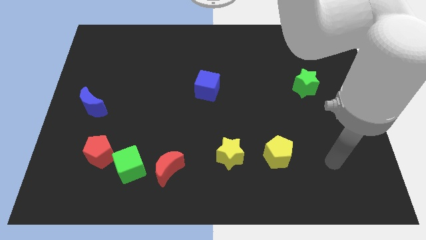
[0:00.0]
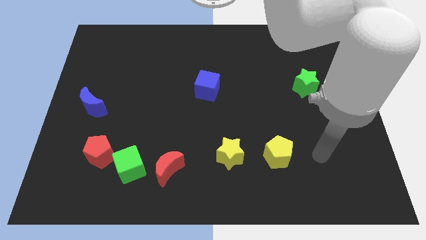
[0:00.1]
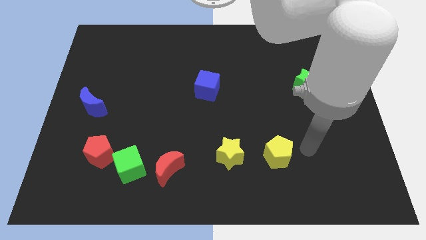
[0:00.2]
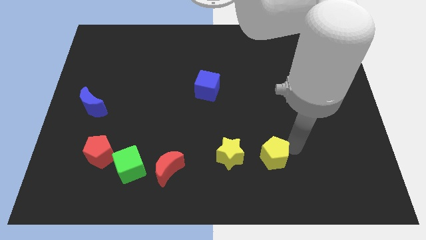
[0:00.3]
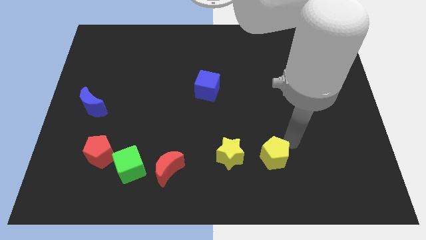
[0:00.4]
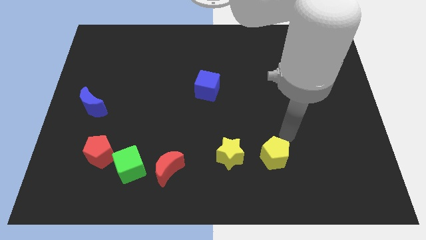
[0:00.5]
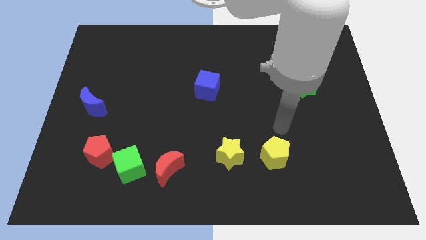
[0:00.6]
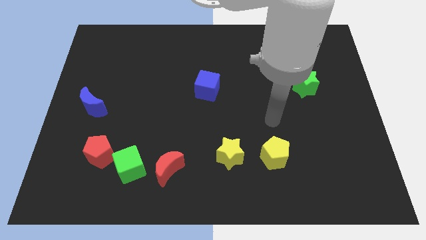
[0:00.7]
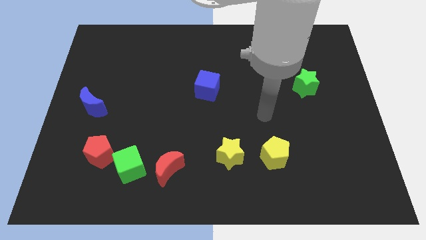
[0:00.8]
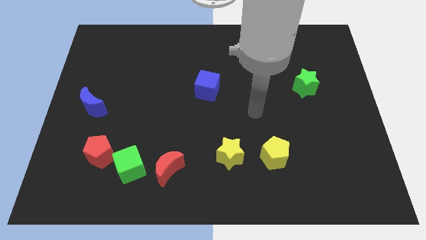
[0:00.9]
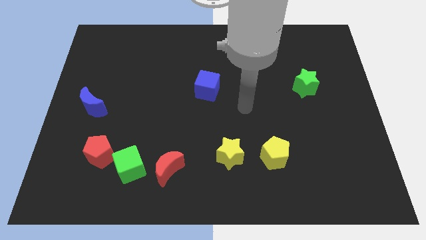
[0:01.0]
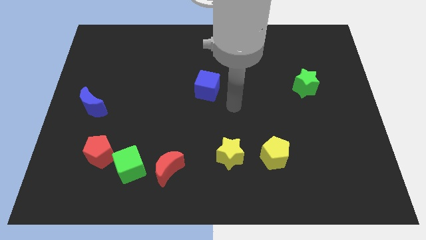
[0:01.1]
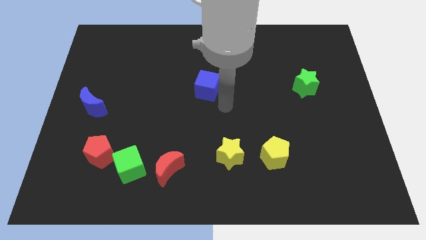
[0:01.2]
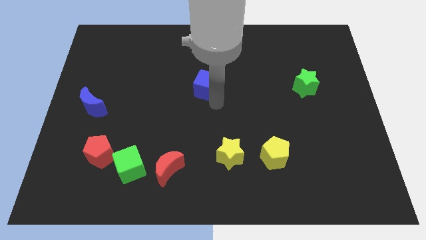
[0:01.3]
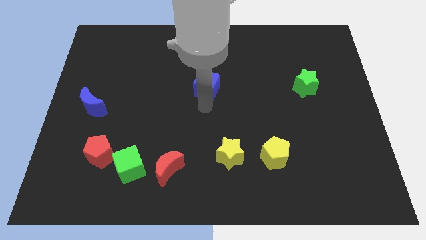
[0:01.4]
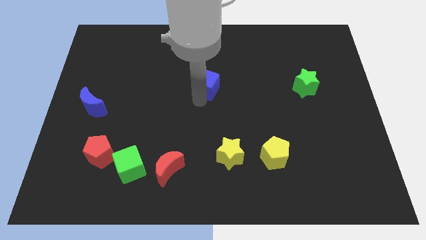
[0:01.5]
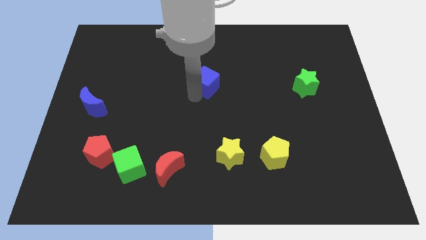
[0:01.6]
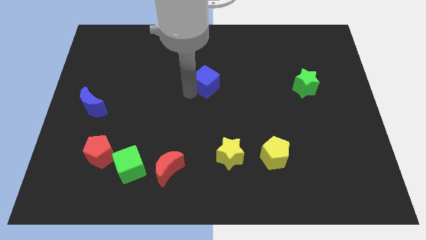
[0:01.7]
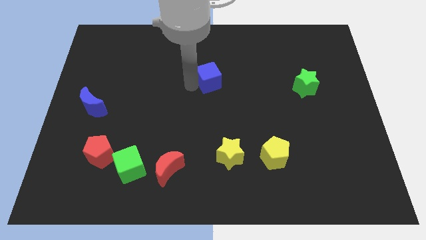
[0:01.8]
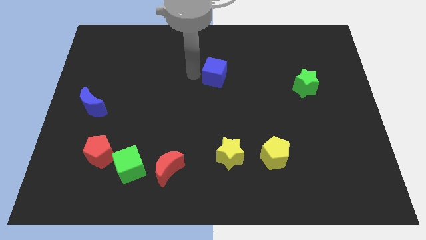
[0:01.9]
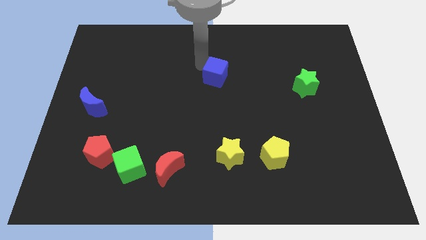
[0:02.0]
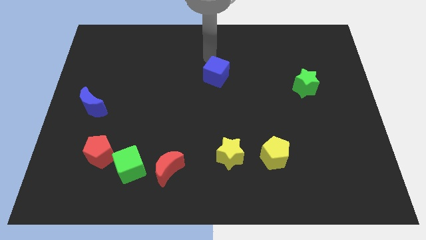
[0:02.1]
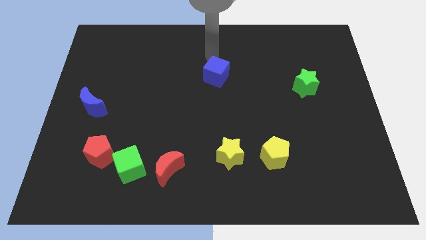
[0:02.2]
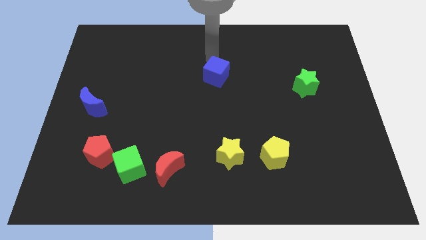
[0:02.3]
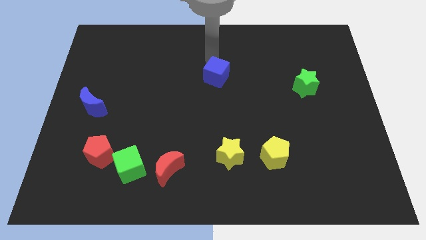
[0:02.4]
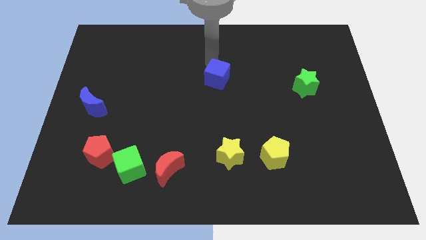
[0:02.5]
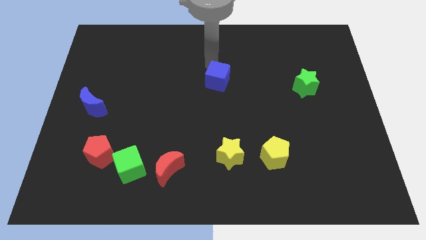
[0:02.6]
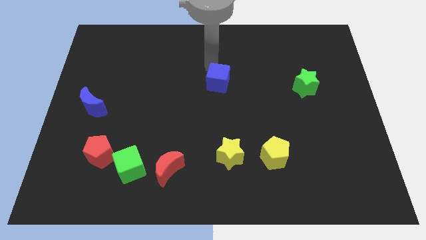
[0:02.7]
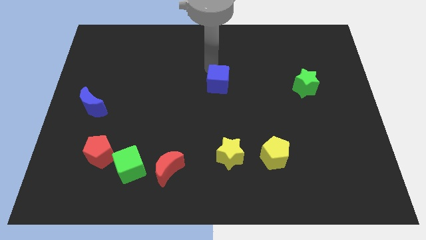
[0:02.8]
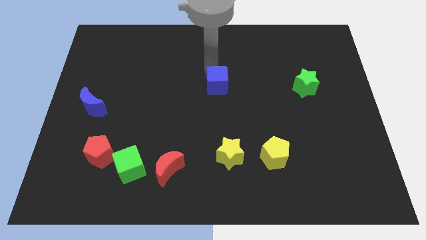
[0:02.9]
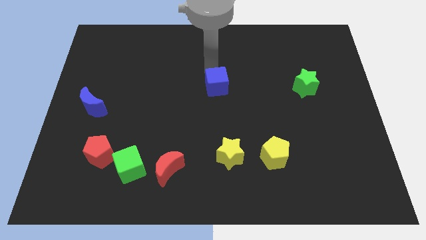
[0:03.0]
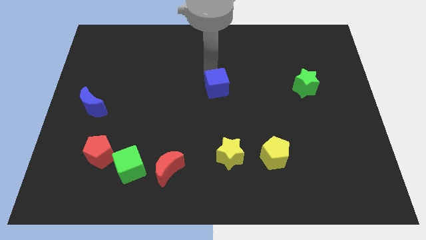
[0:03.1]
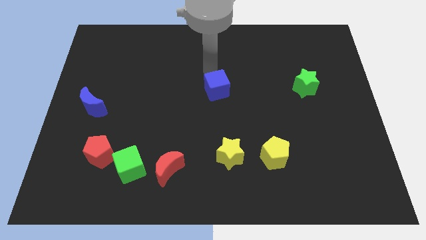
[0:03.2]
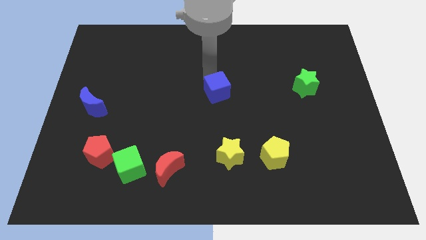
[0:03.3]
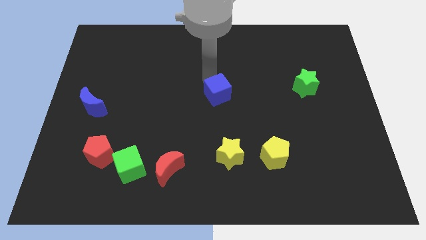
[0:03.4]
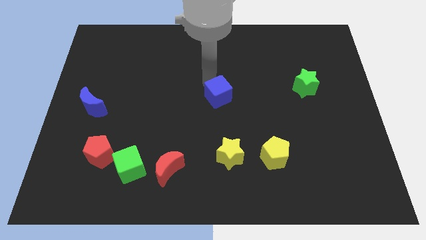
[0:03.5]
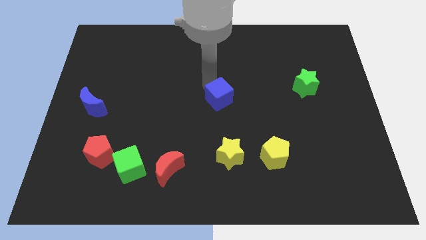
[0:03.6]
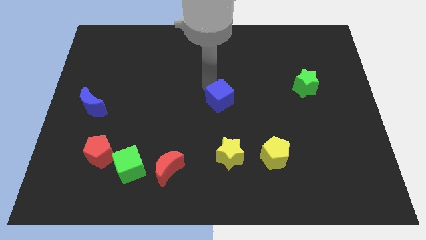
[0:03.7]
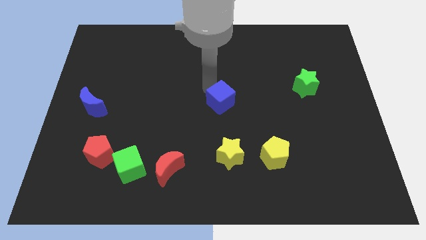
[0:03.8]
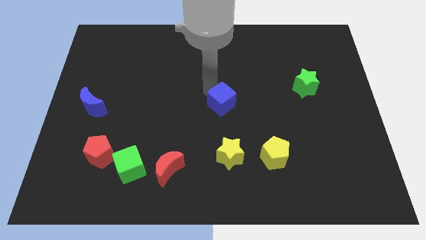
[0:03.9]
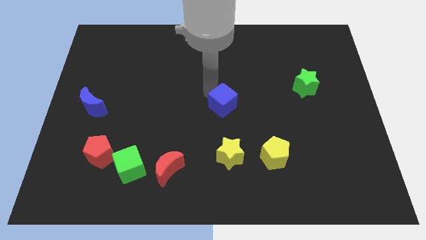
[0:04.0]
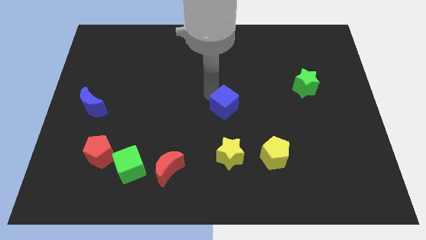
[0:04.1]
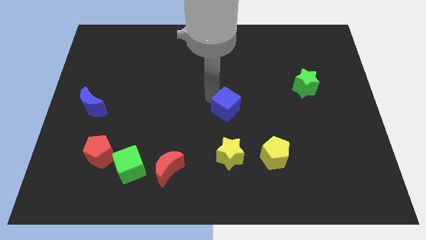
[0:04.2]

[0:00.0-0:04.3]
push the blue cube a little downwards and to the right diagonally

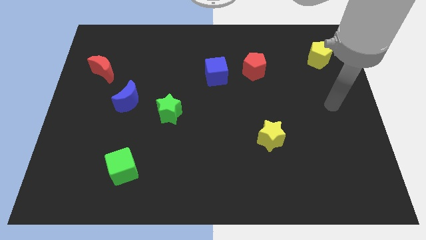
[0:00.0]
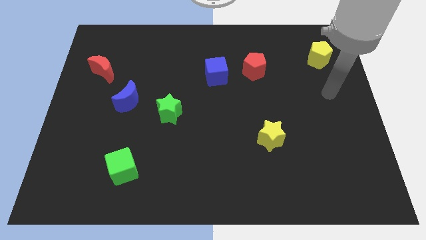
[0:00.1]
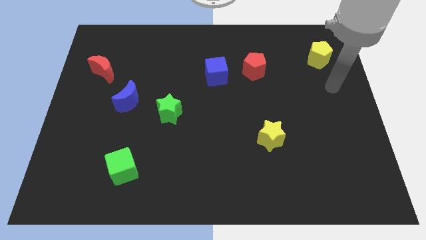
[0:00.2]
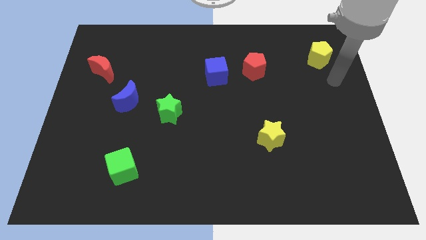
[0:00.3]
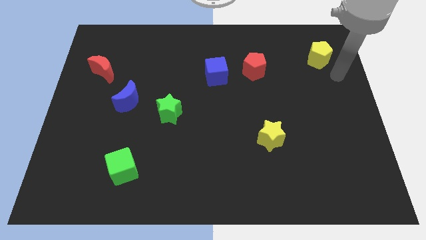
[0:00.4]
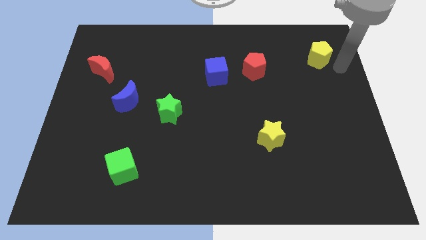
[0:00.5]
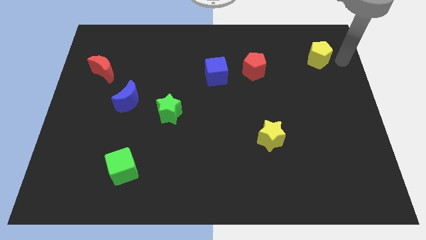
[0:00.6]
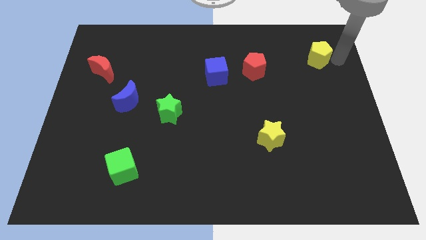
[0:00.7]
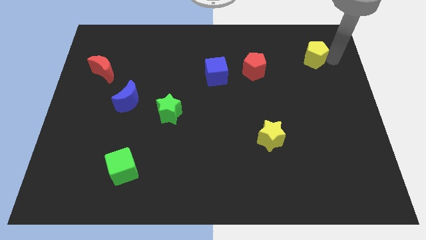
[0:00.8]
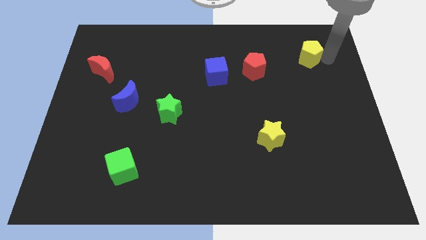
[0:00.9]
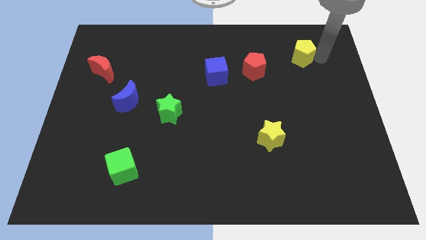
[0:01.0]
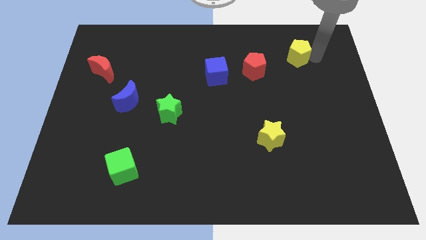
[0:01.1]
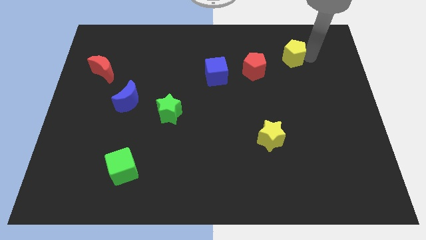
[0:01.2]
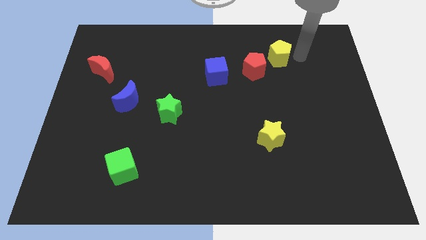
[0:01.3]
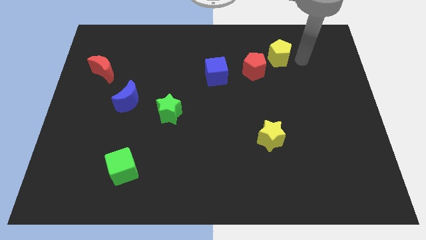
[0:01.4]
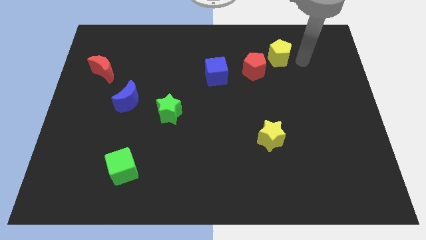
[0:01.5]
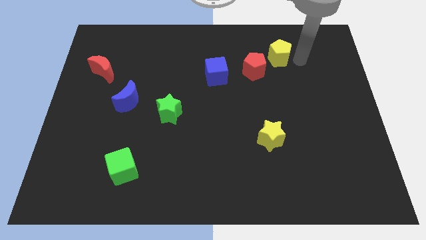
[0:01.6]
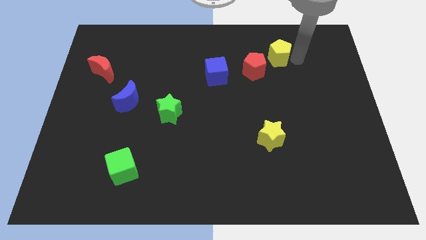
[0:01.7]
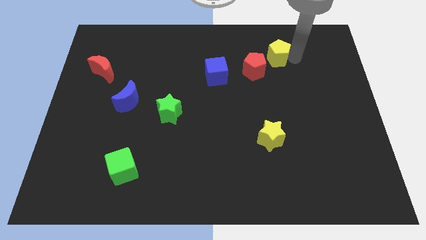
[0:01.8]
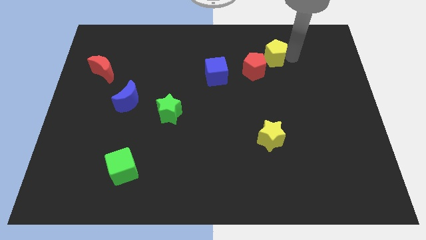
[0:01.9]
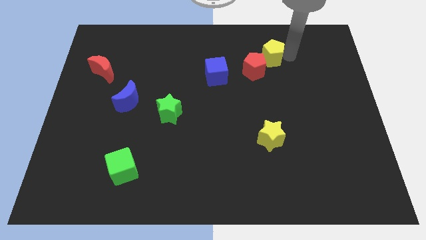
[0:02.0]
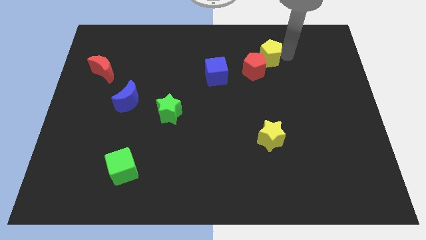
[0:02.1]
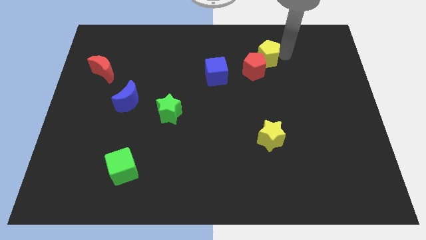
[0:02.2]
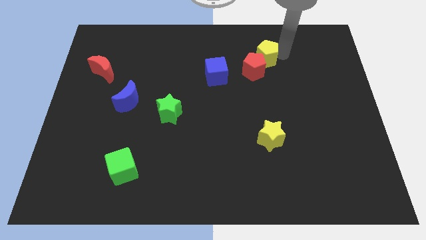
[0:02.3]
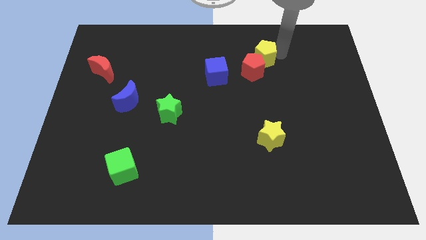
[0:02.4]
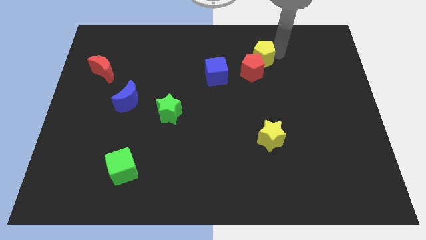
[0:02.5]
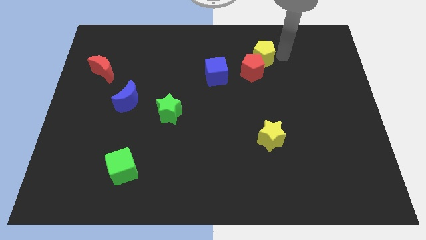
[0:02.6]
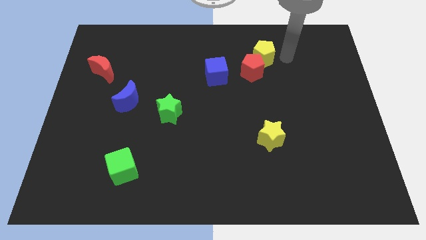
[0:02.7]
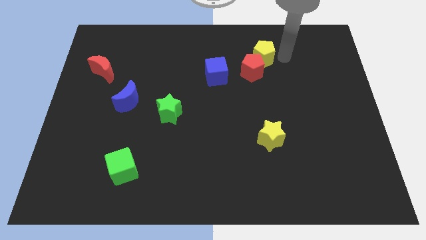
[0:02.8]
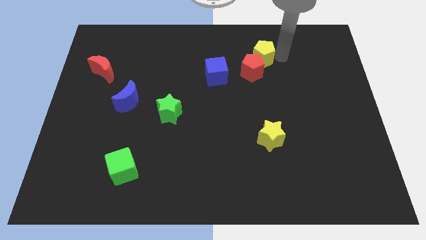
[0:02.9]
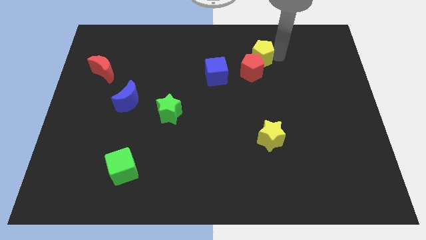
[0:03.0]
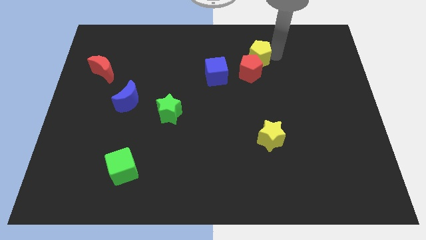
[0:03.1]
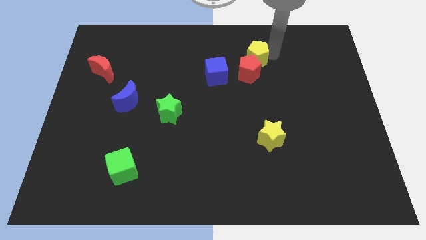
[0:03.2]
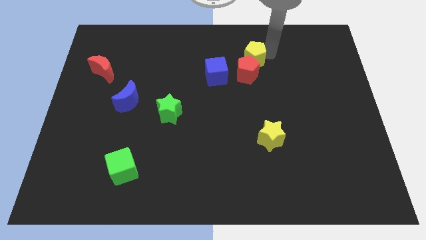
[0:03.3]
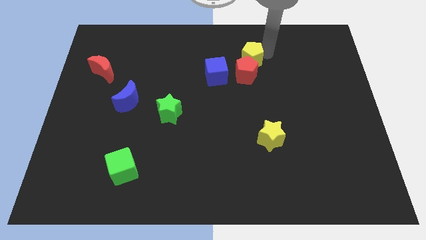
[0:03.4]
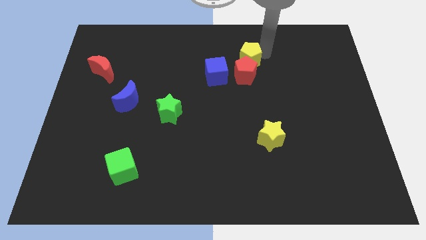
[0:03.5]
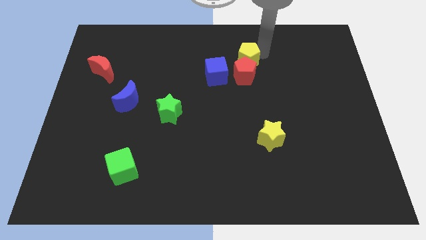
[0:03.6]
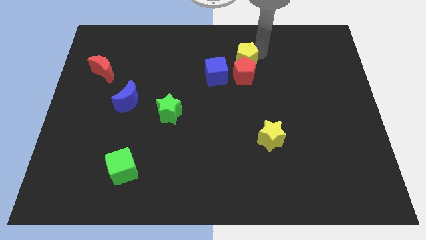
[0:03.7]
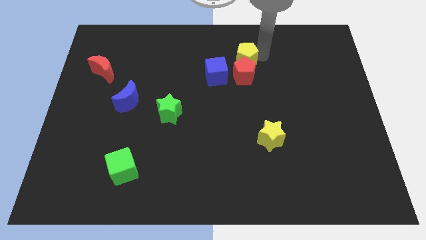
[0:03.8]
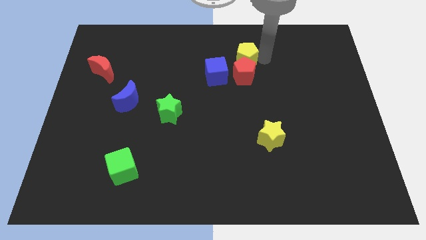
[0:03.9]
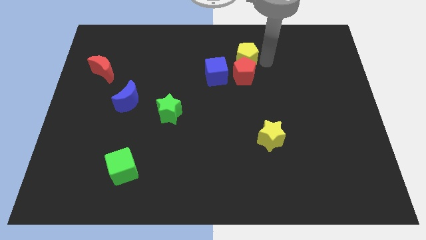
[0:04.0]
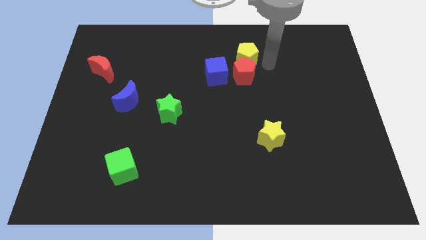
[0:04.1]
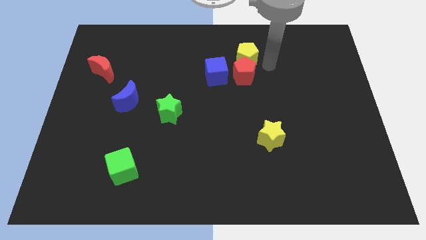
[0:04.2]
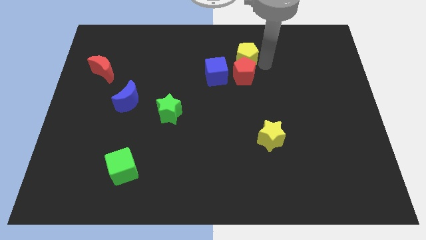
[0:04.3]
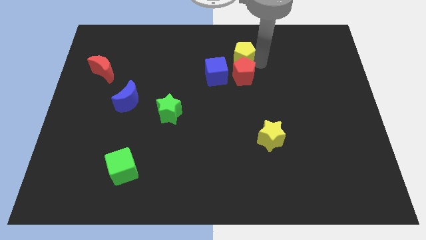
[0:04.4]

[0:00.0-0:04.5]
push the yellow pentagon to the left
